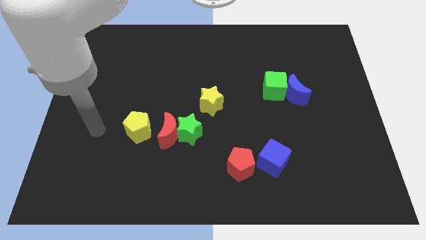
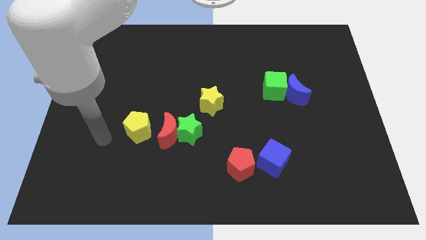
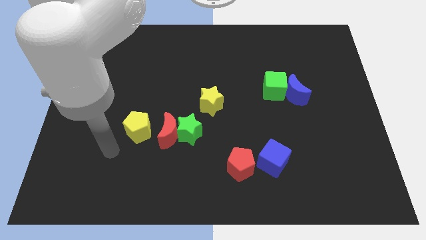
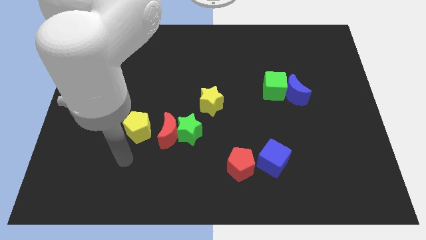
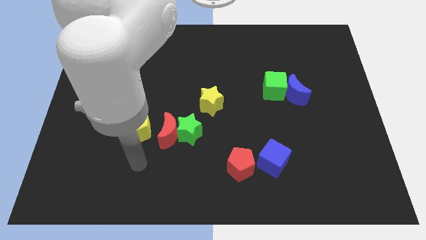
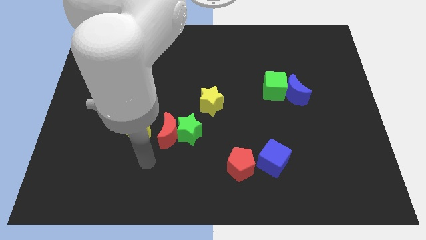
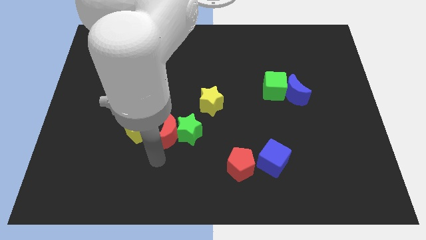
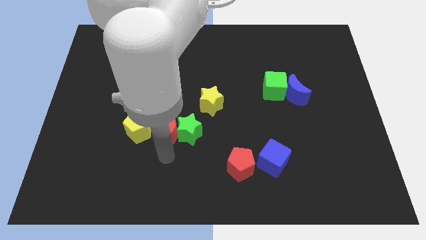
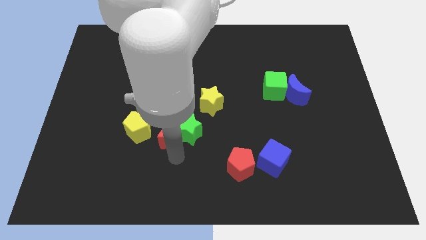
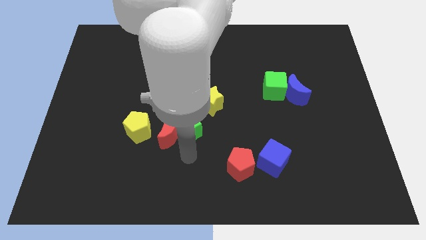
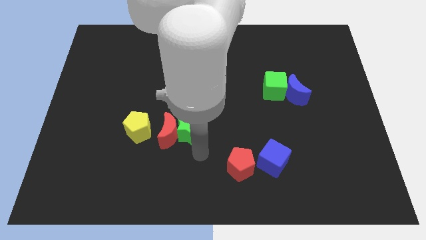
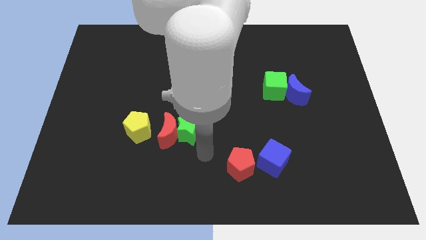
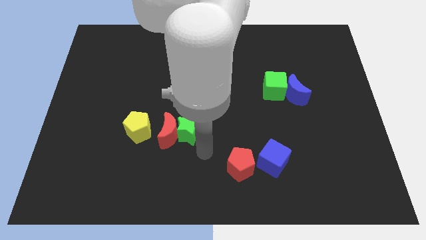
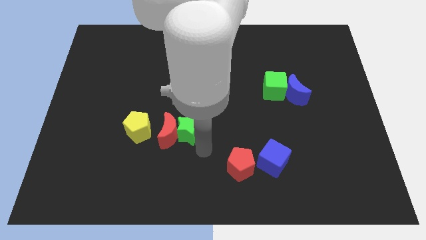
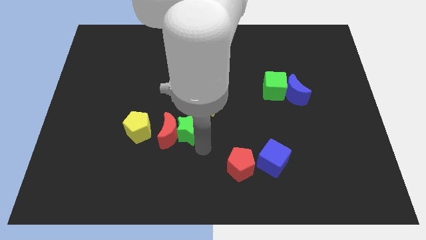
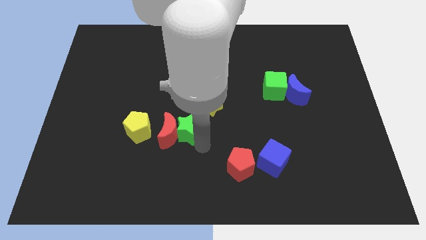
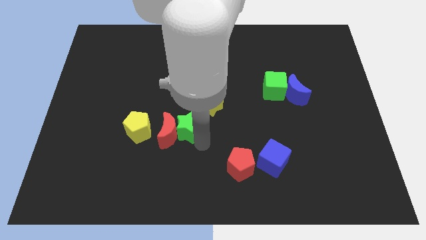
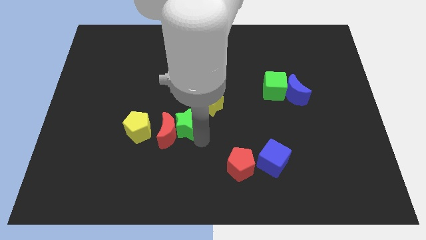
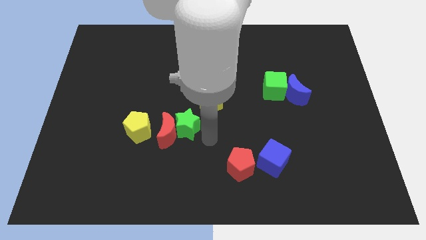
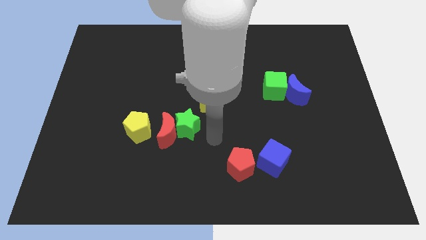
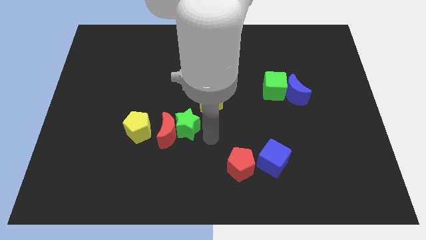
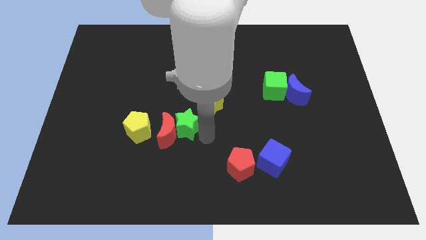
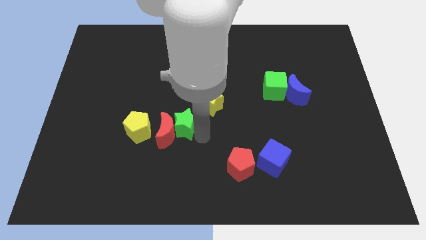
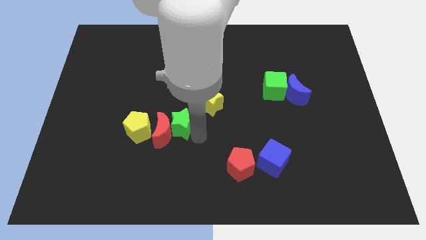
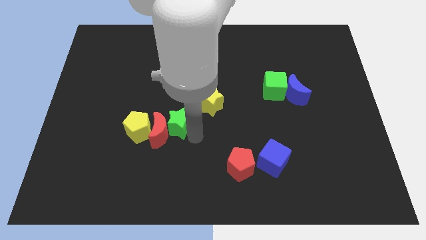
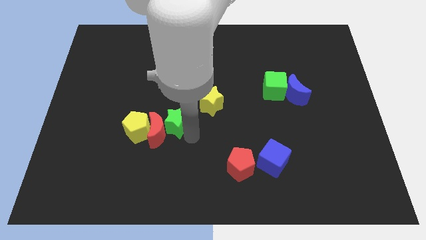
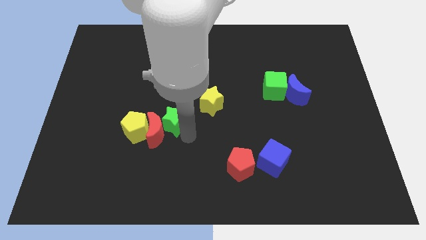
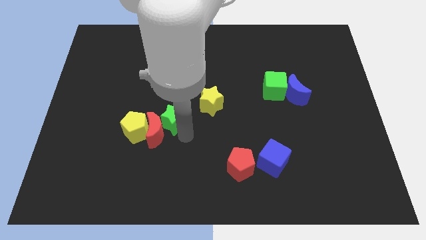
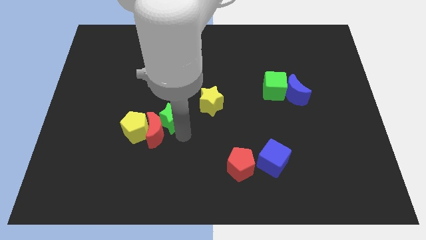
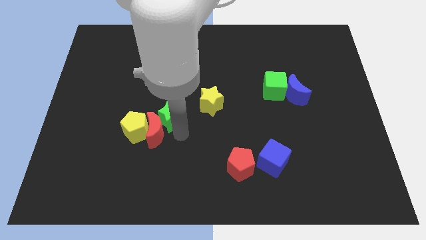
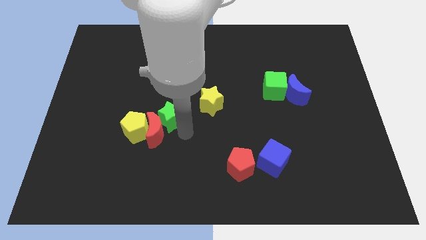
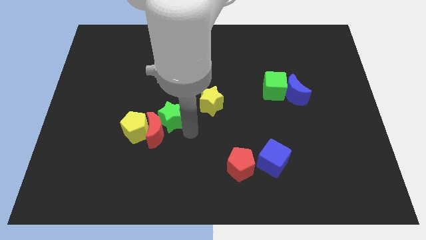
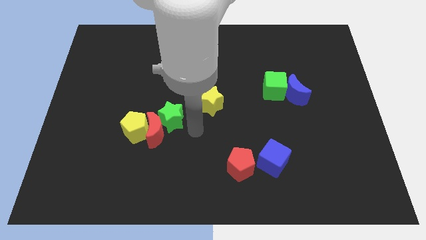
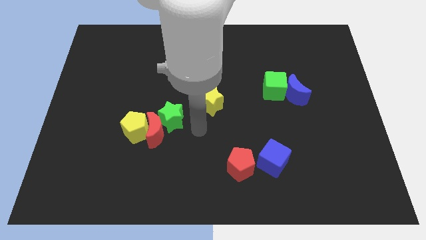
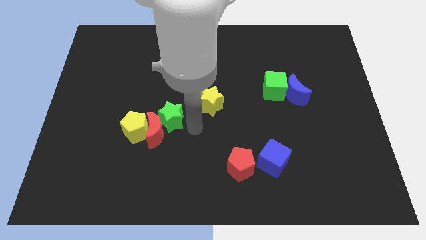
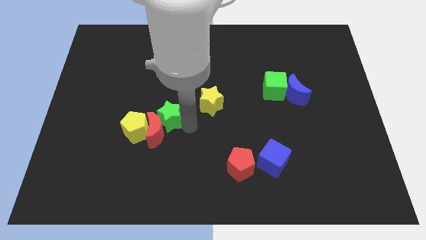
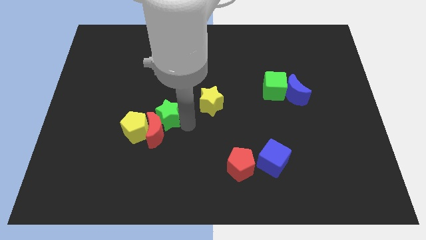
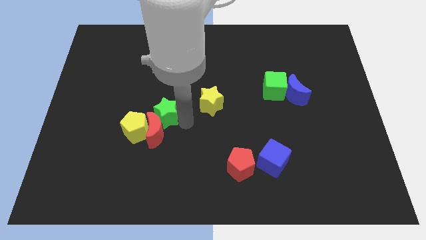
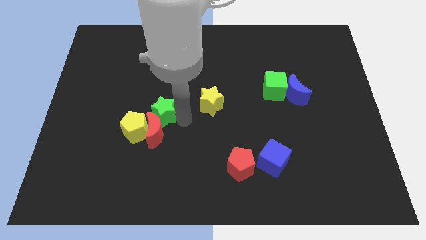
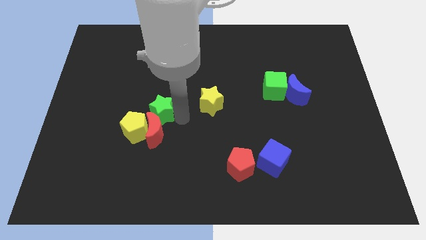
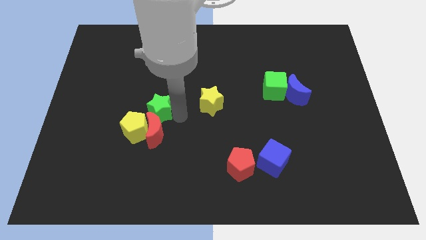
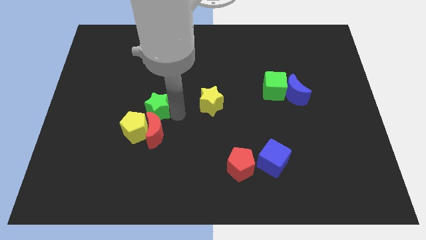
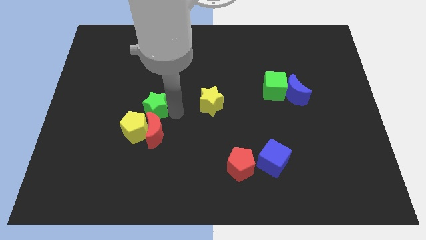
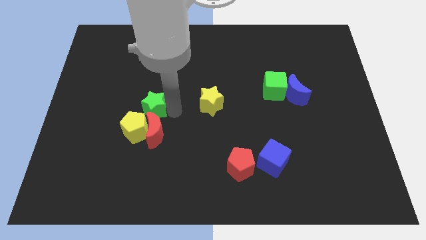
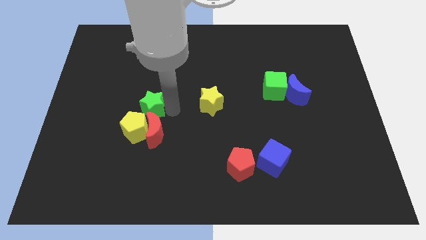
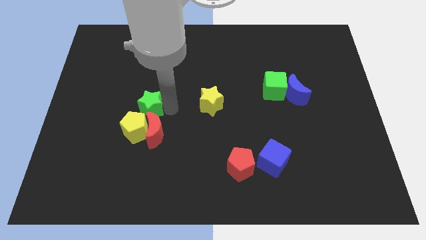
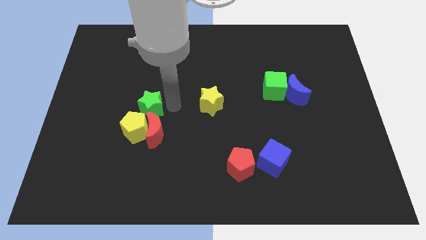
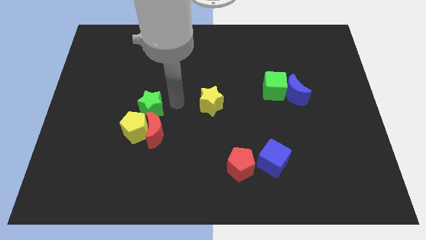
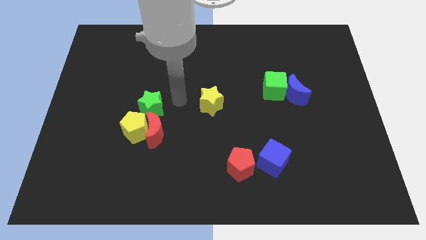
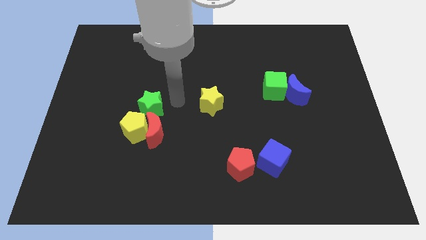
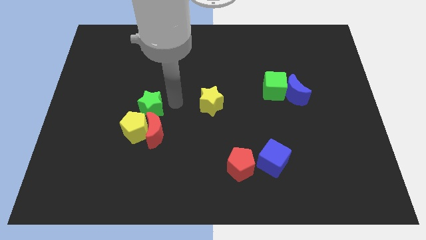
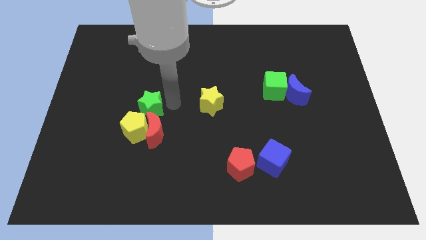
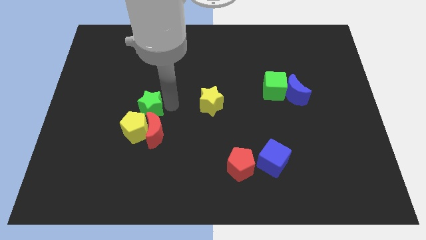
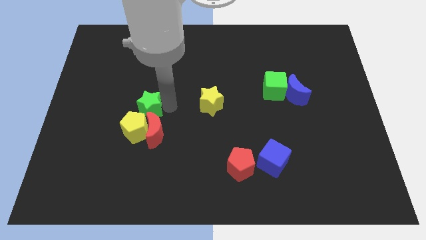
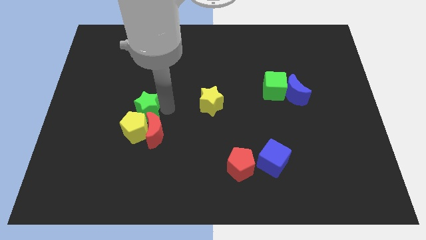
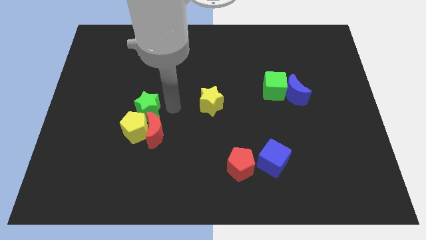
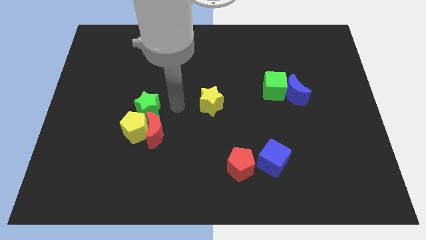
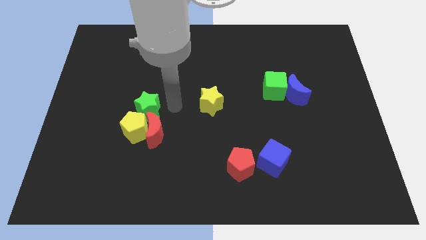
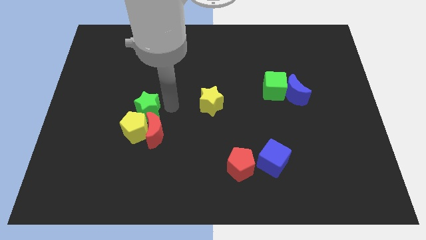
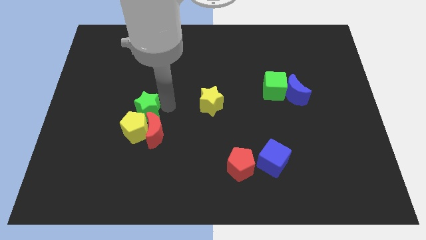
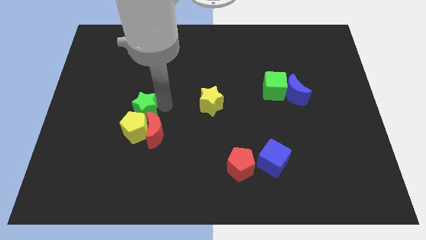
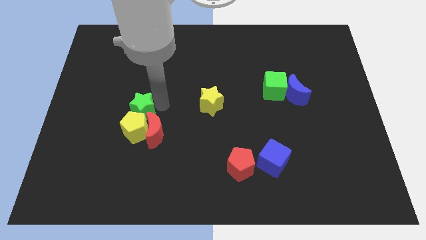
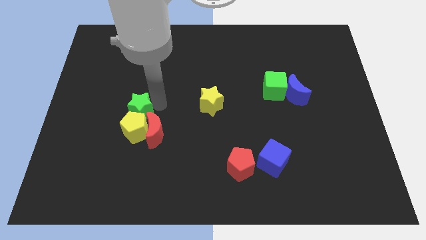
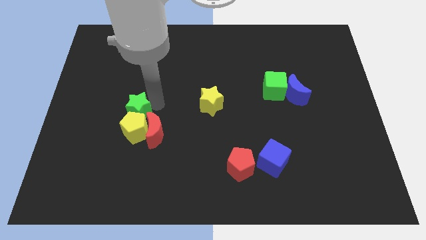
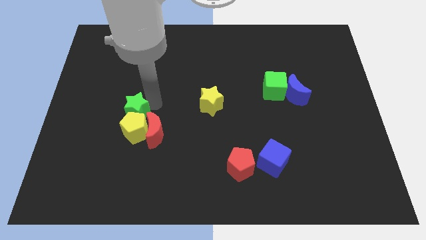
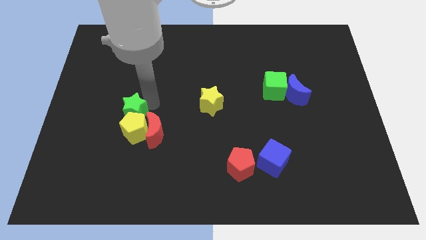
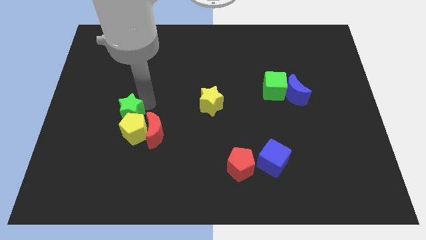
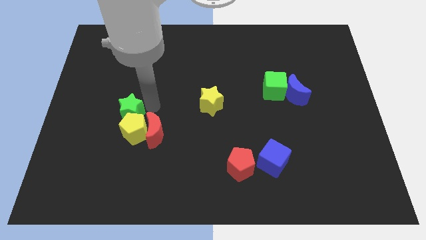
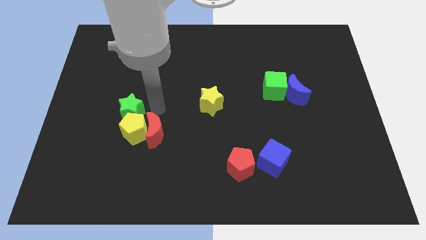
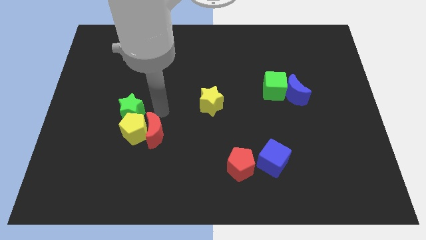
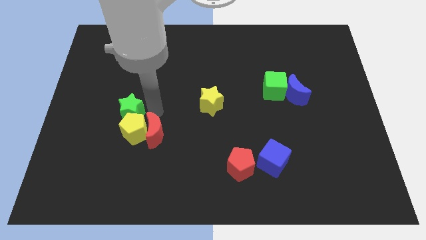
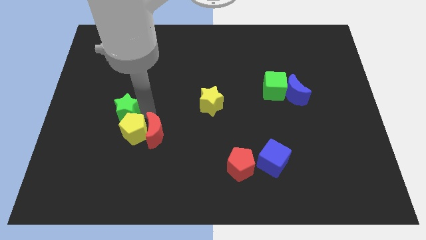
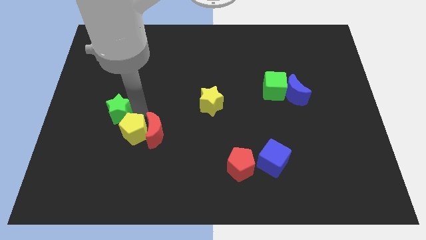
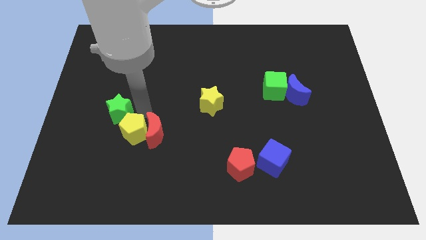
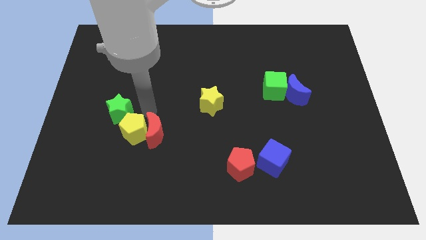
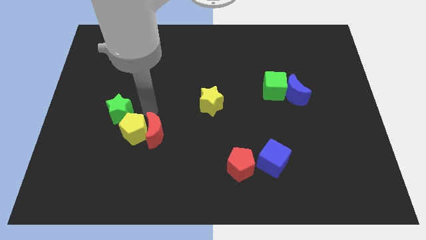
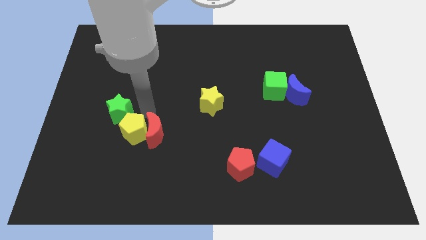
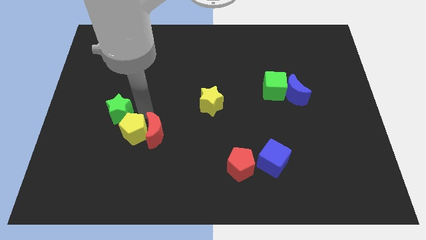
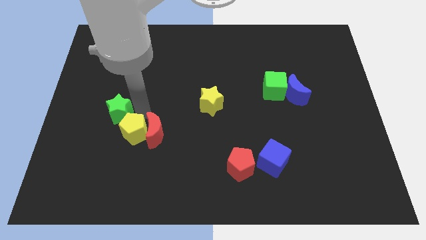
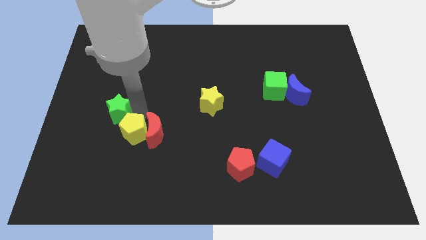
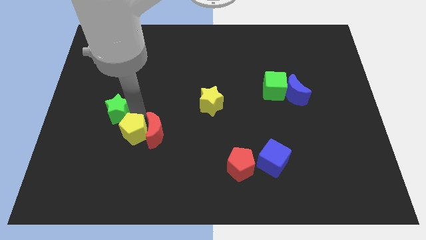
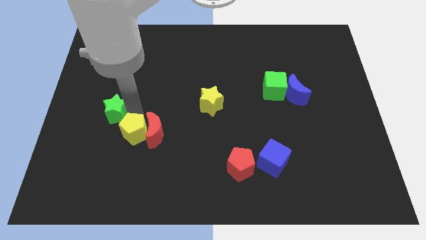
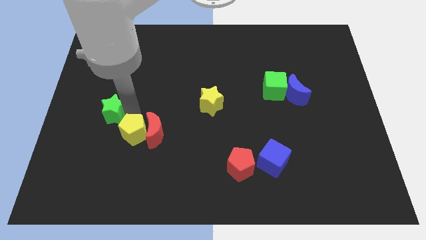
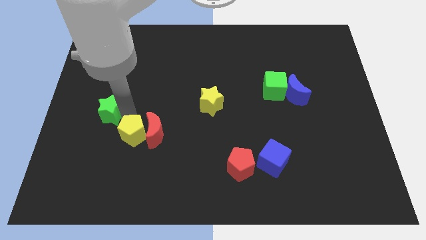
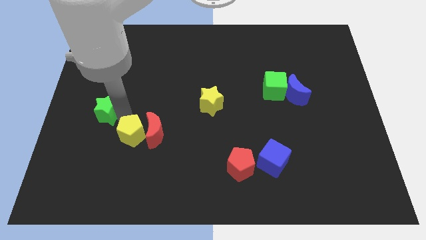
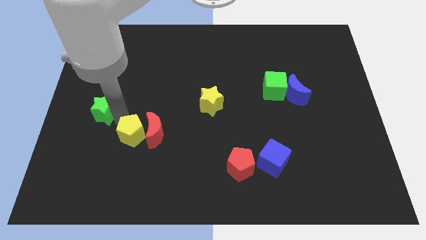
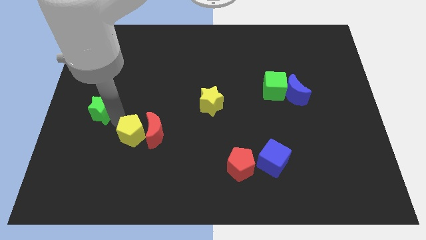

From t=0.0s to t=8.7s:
put the green star to the left side of the board
